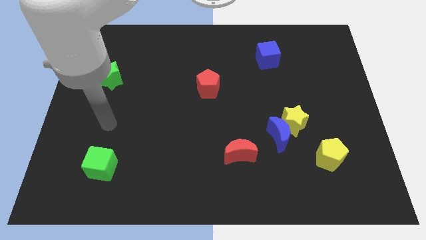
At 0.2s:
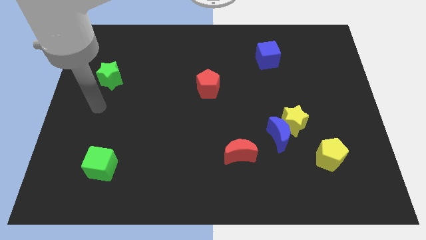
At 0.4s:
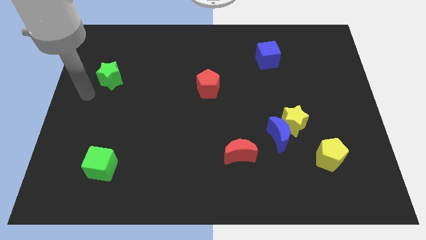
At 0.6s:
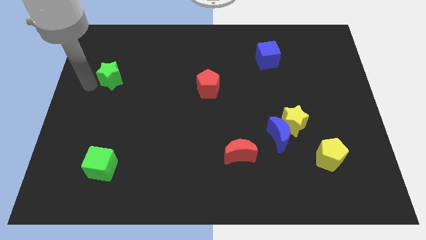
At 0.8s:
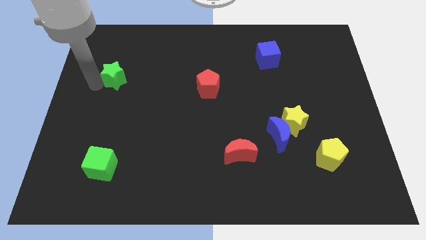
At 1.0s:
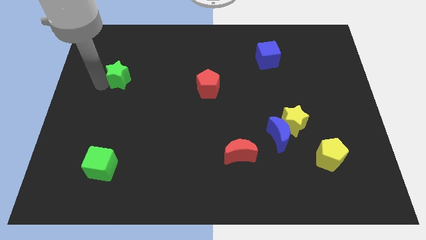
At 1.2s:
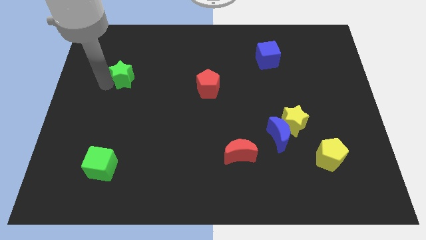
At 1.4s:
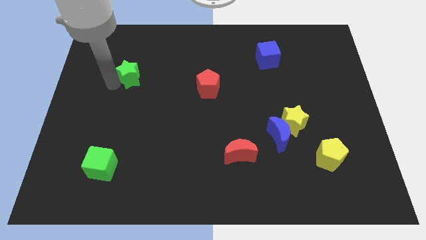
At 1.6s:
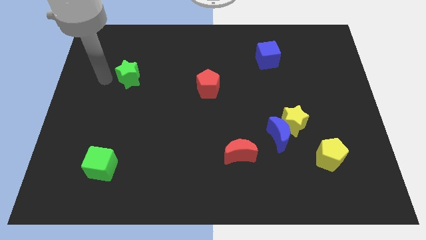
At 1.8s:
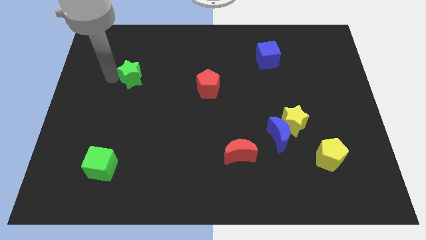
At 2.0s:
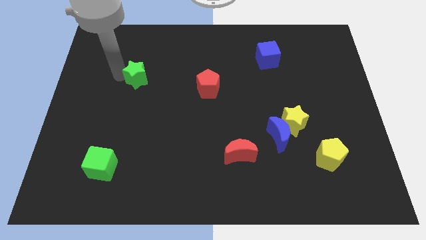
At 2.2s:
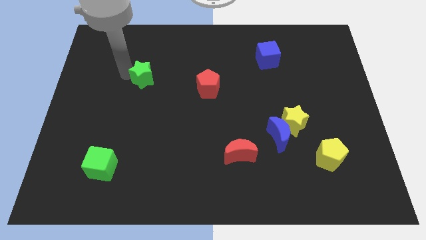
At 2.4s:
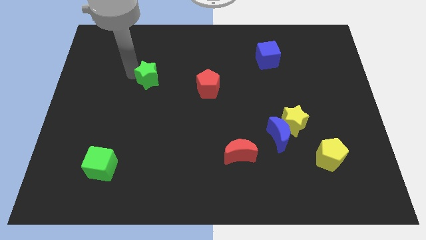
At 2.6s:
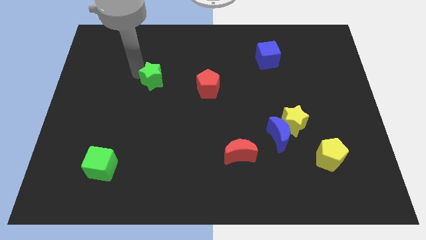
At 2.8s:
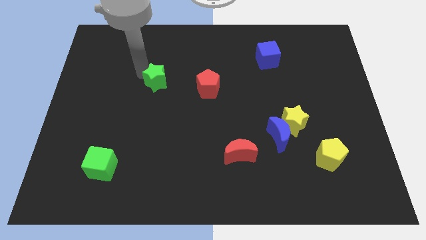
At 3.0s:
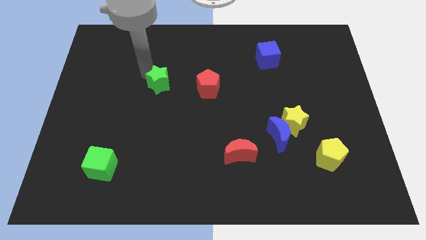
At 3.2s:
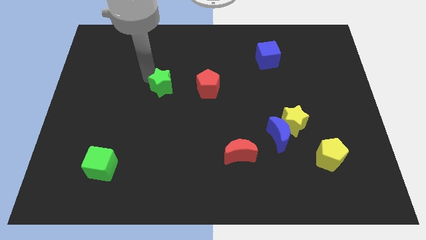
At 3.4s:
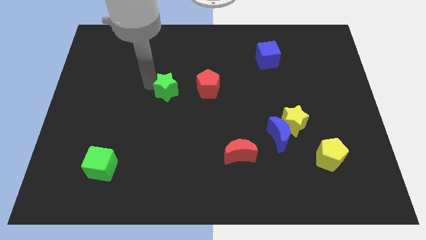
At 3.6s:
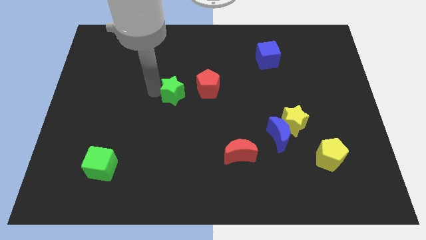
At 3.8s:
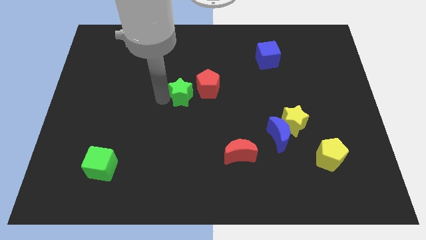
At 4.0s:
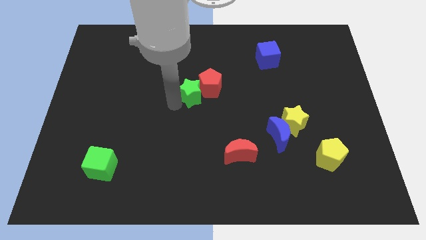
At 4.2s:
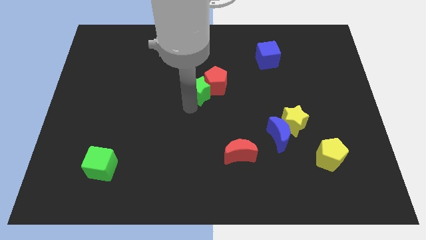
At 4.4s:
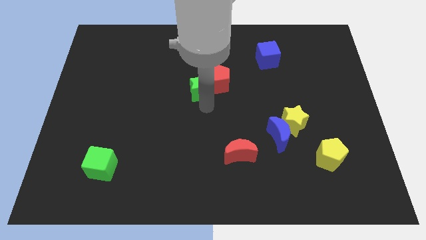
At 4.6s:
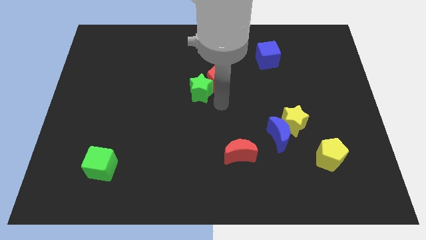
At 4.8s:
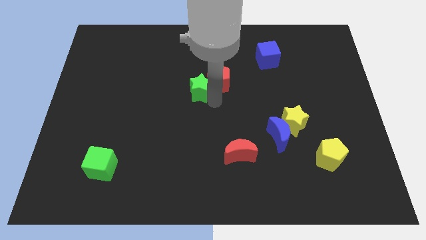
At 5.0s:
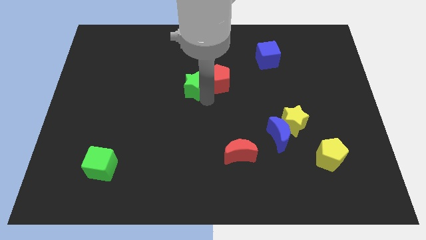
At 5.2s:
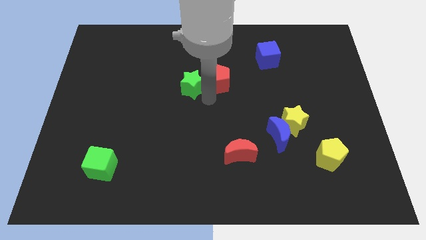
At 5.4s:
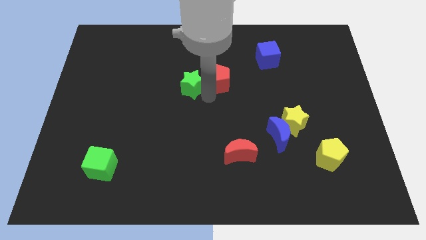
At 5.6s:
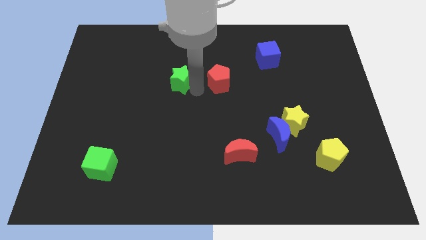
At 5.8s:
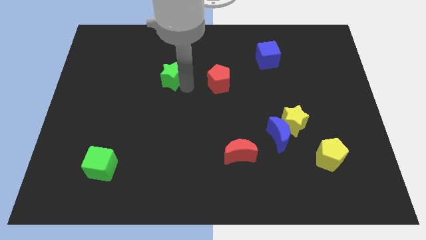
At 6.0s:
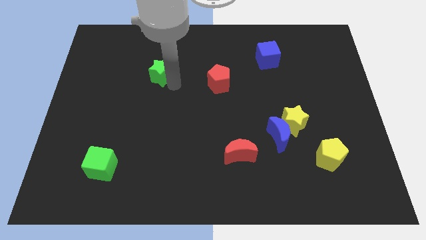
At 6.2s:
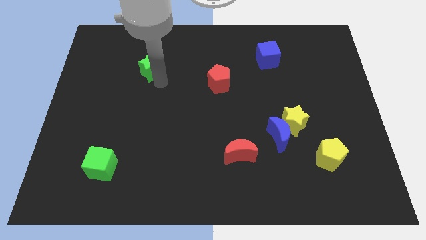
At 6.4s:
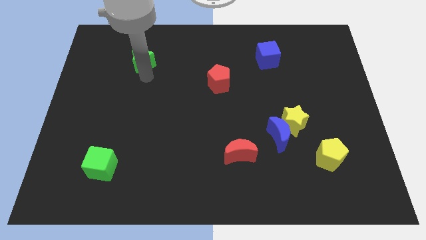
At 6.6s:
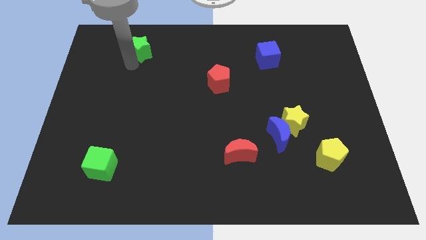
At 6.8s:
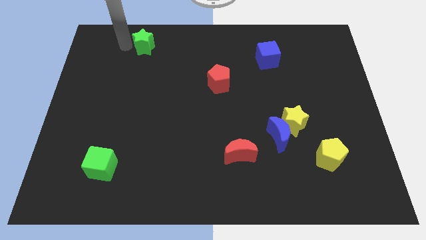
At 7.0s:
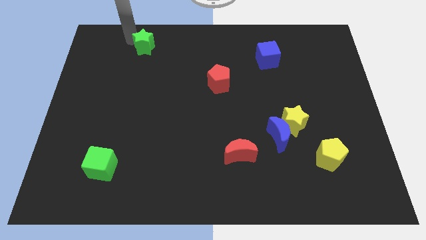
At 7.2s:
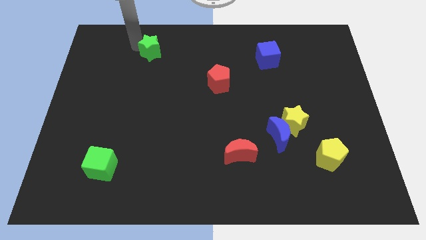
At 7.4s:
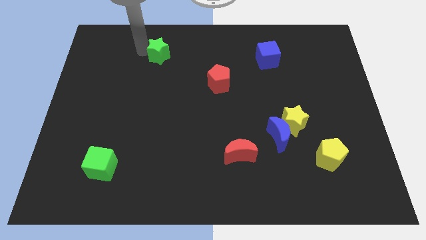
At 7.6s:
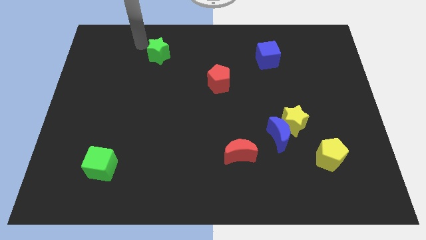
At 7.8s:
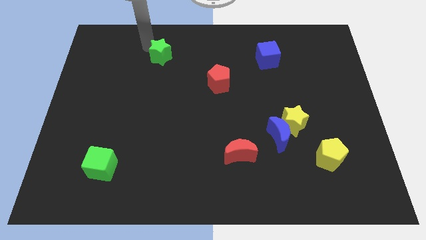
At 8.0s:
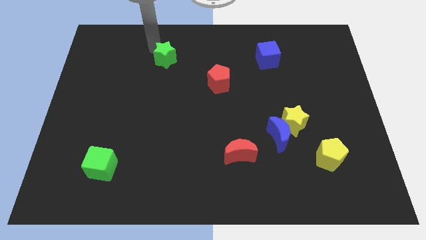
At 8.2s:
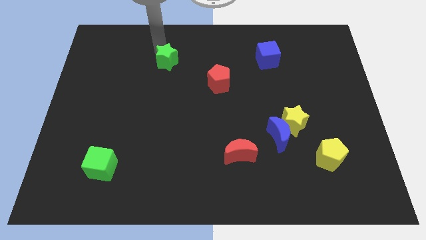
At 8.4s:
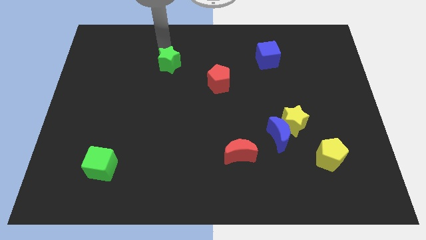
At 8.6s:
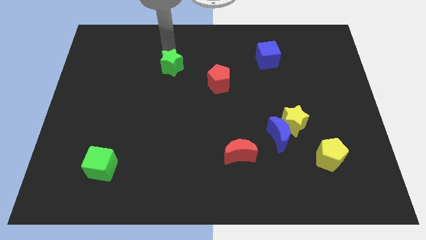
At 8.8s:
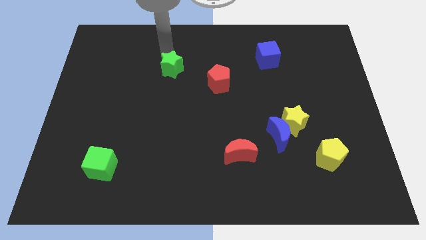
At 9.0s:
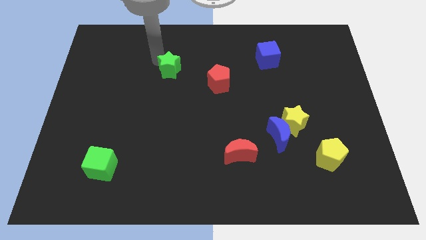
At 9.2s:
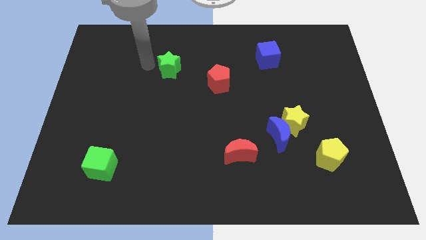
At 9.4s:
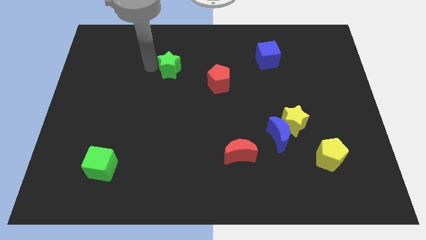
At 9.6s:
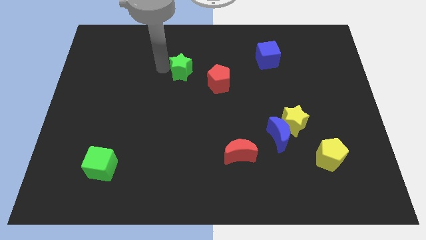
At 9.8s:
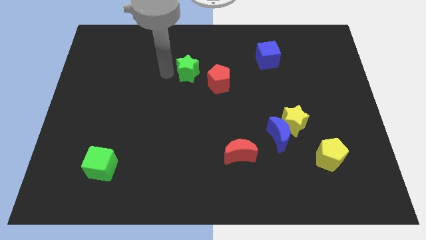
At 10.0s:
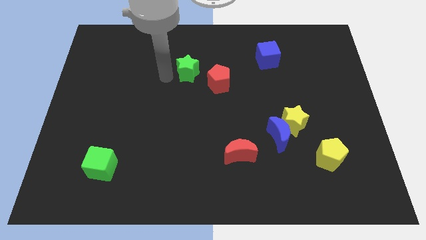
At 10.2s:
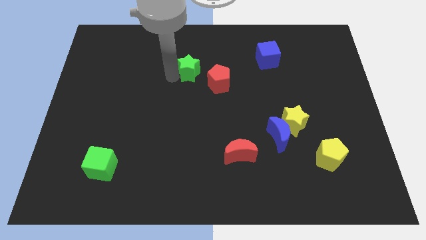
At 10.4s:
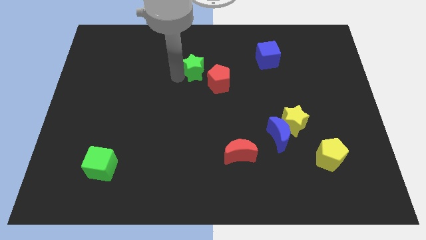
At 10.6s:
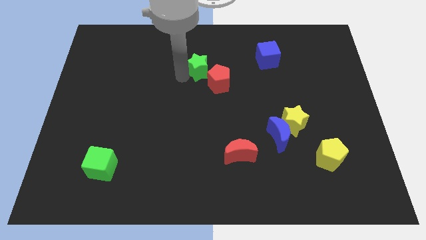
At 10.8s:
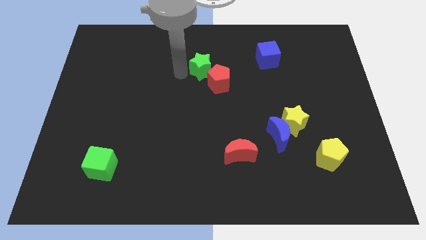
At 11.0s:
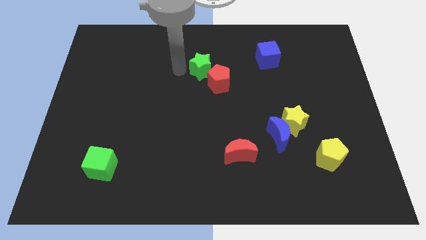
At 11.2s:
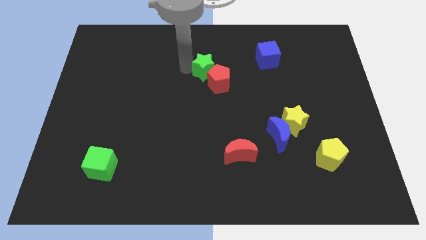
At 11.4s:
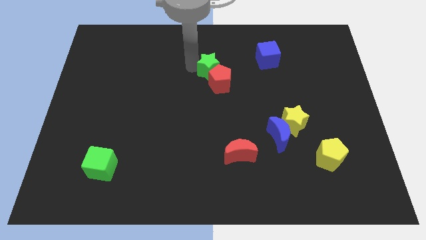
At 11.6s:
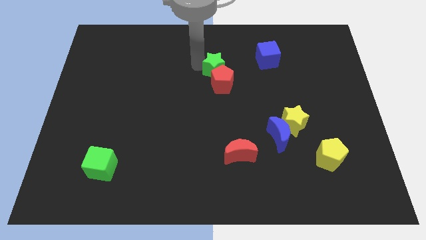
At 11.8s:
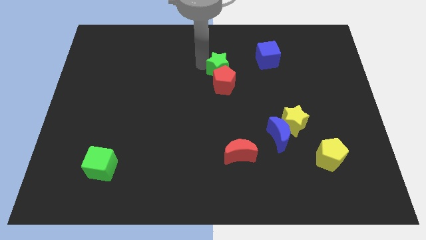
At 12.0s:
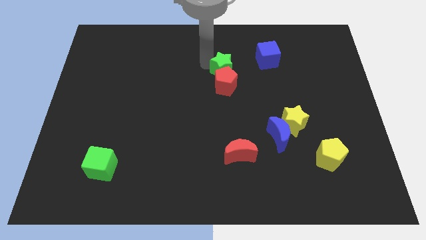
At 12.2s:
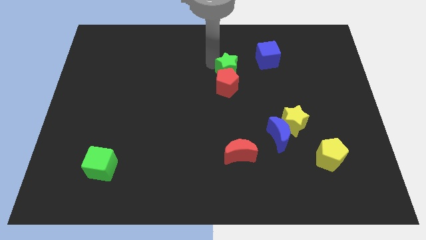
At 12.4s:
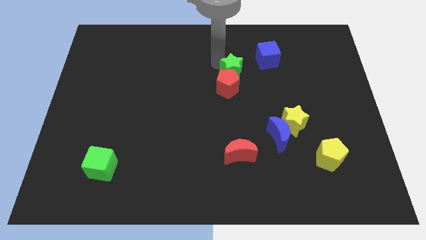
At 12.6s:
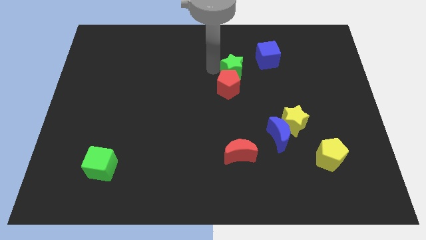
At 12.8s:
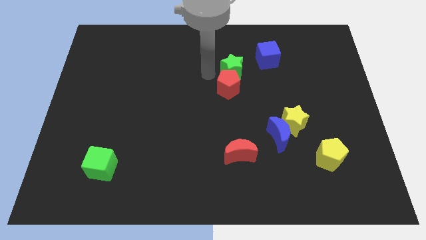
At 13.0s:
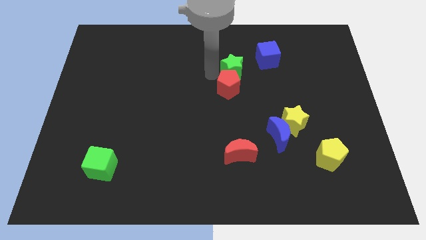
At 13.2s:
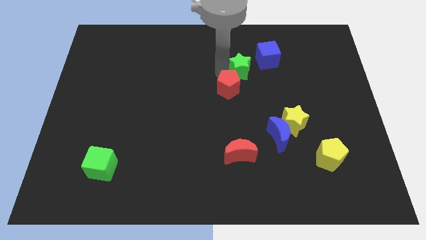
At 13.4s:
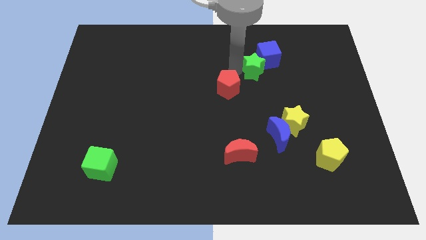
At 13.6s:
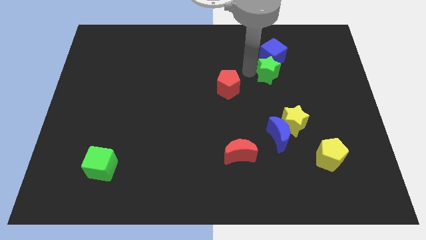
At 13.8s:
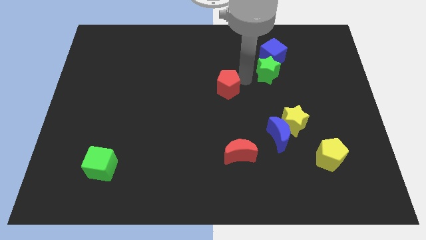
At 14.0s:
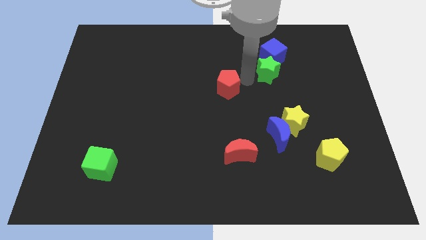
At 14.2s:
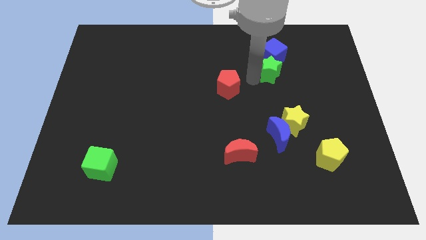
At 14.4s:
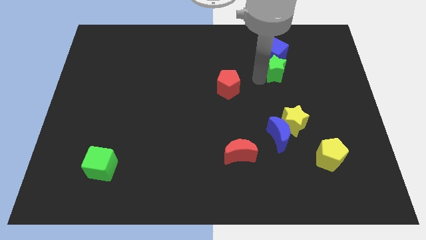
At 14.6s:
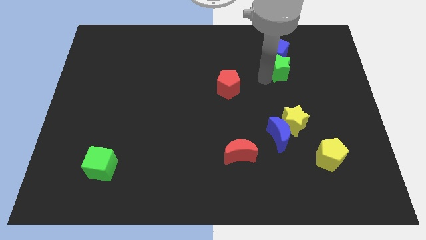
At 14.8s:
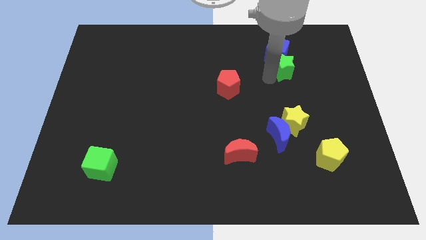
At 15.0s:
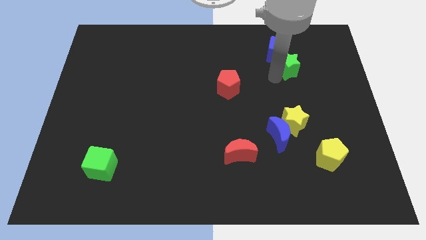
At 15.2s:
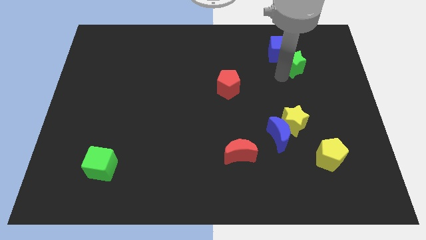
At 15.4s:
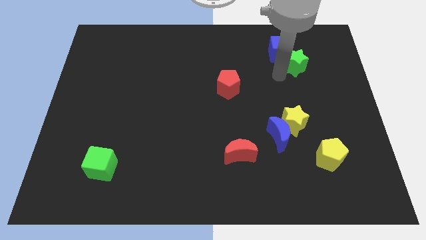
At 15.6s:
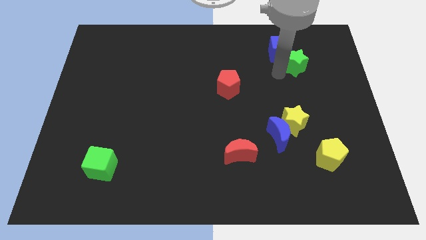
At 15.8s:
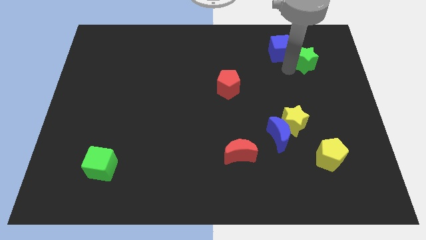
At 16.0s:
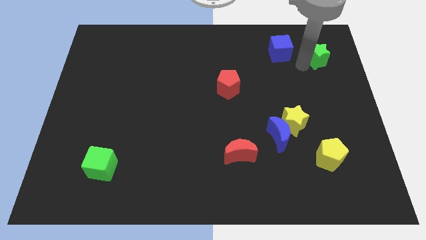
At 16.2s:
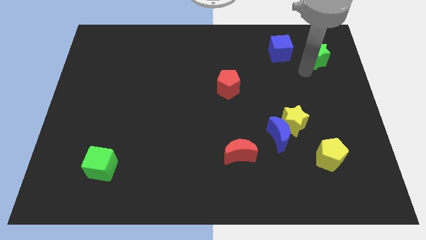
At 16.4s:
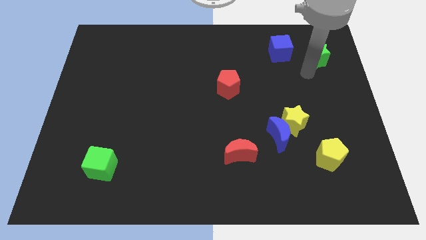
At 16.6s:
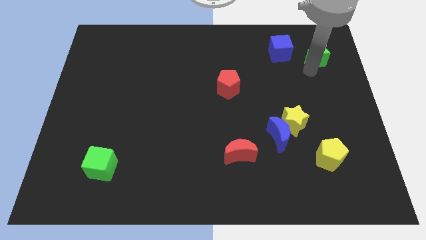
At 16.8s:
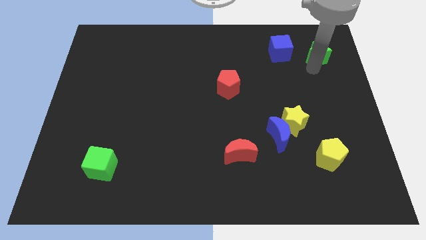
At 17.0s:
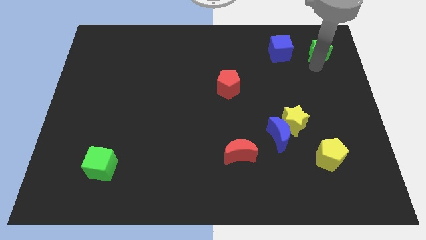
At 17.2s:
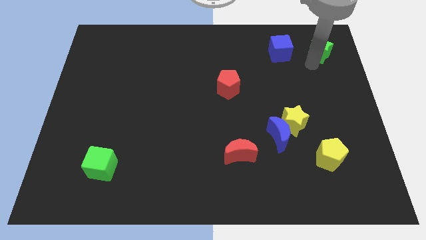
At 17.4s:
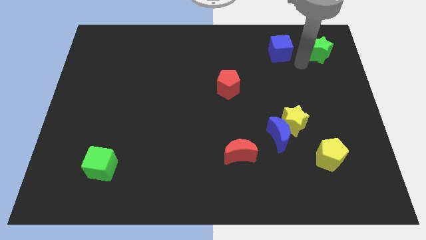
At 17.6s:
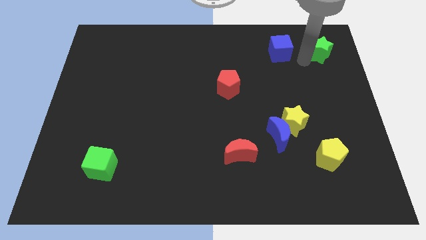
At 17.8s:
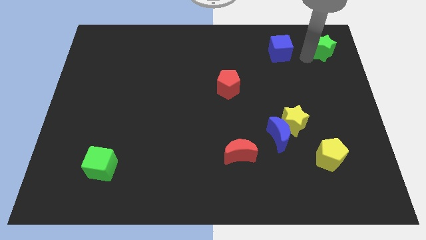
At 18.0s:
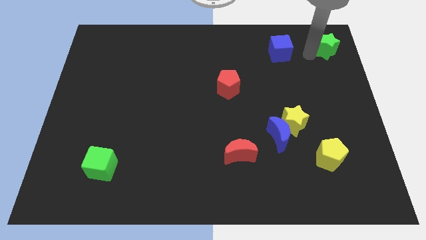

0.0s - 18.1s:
push the green star to the top right corner
